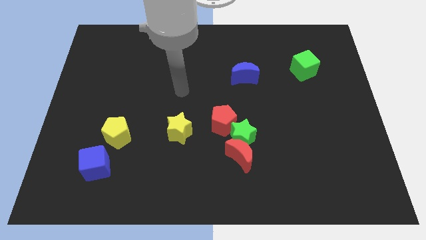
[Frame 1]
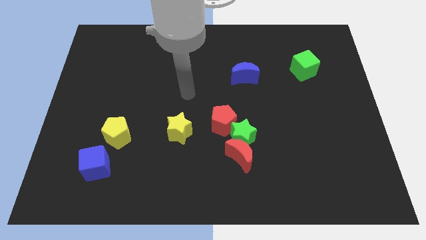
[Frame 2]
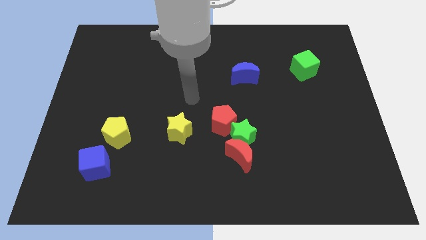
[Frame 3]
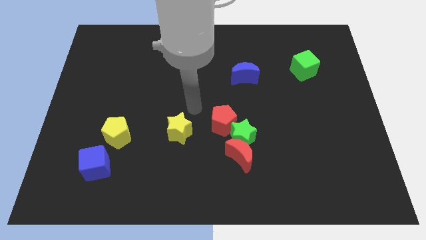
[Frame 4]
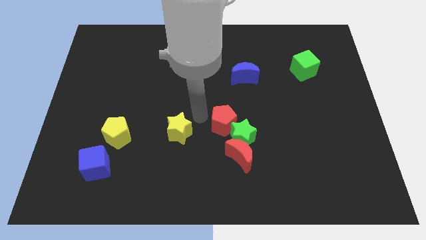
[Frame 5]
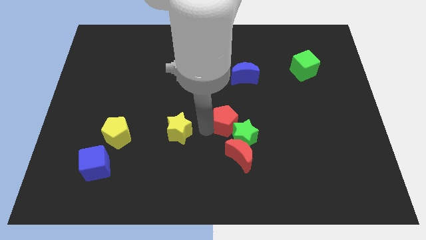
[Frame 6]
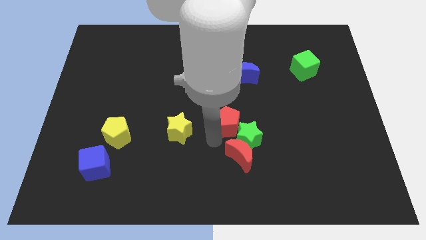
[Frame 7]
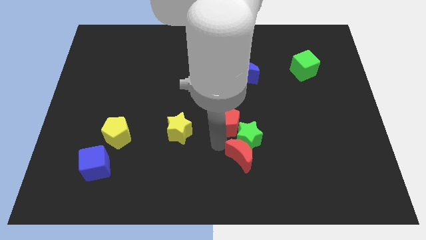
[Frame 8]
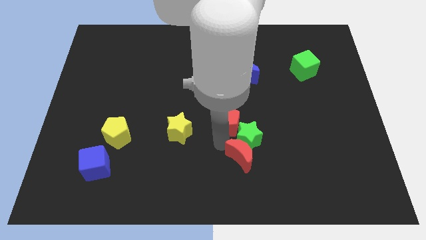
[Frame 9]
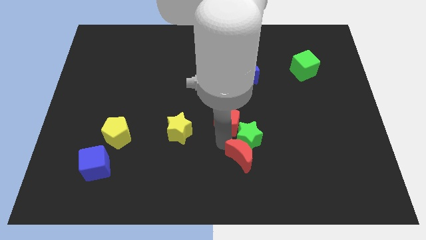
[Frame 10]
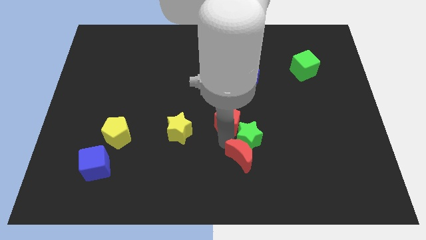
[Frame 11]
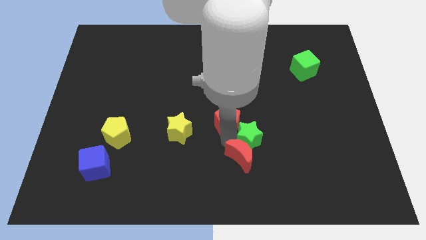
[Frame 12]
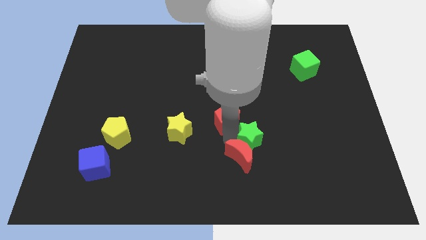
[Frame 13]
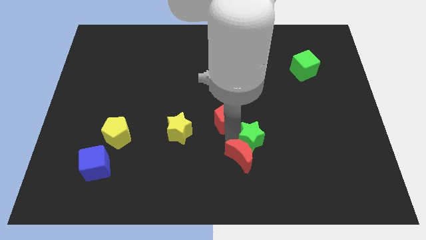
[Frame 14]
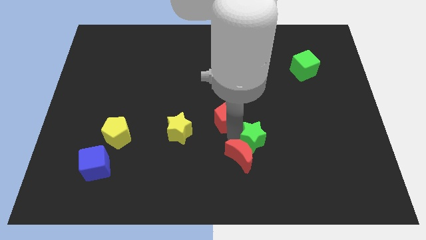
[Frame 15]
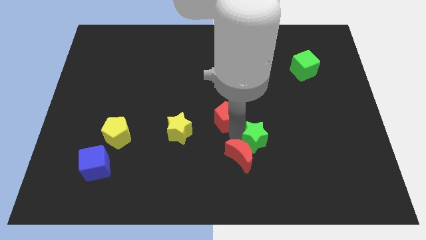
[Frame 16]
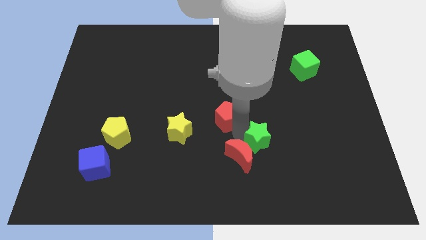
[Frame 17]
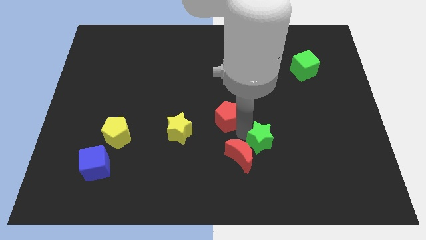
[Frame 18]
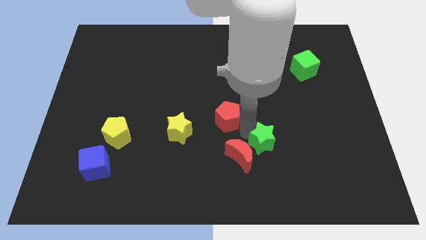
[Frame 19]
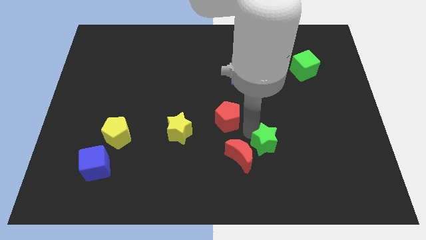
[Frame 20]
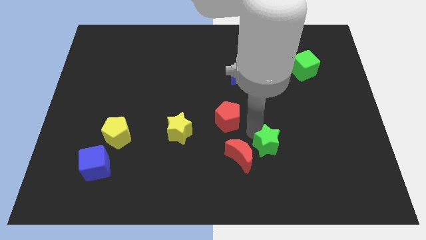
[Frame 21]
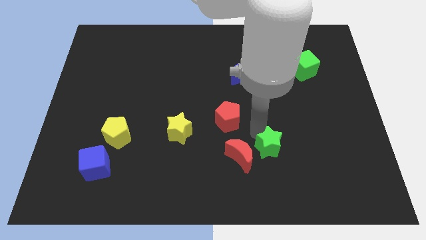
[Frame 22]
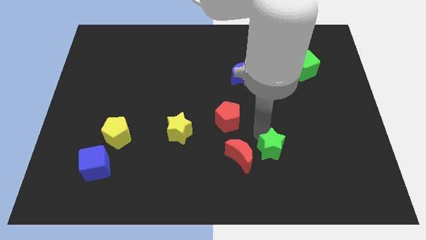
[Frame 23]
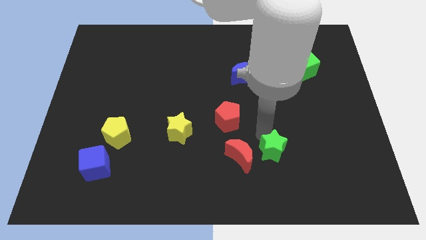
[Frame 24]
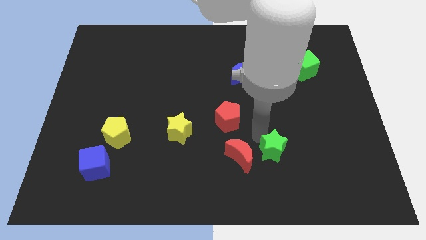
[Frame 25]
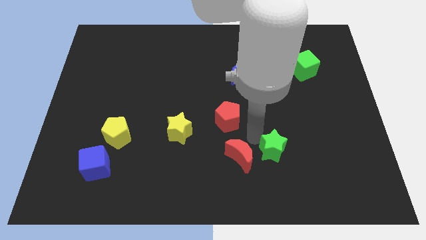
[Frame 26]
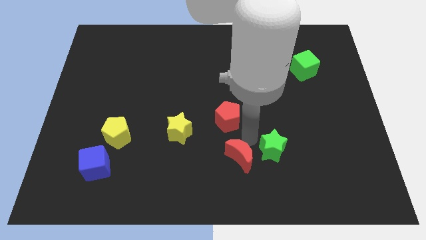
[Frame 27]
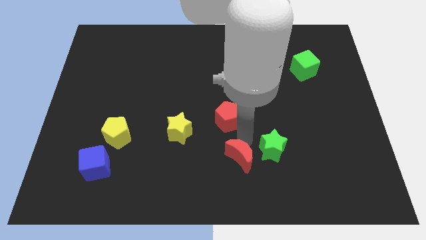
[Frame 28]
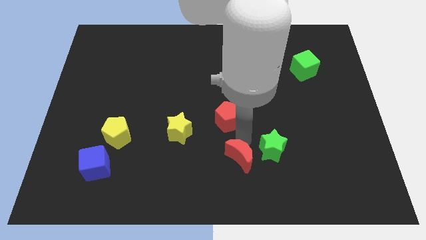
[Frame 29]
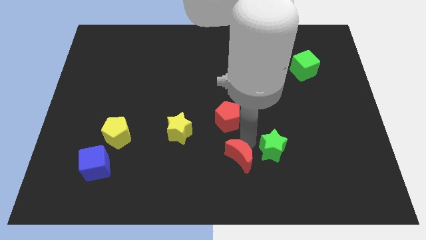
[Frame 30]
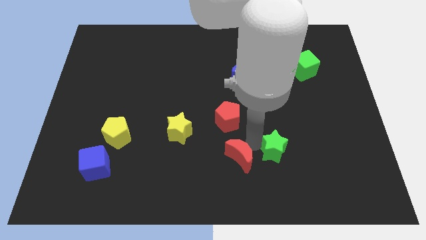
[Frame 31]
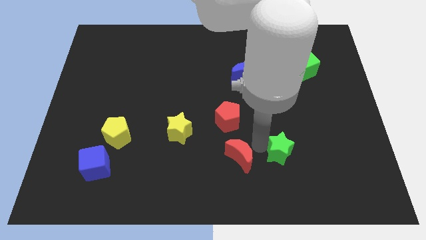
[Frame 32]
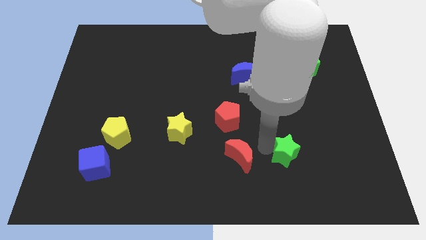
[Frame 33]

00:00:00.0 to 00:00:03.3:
pull the green star apart from the red moon and red pentagon

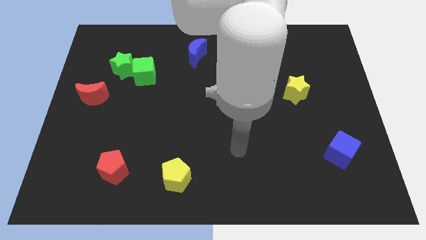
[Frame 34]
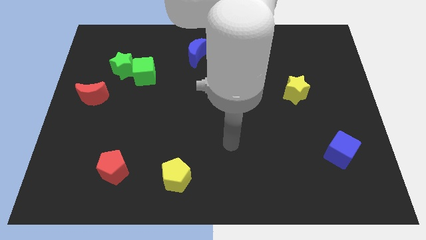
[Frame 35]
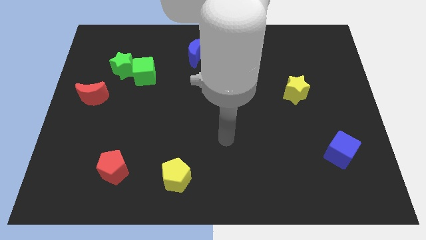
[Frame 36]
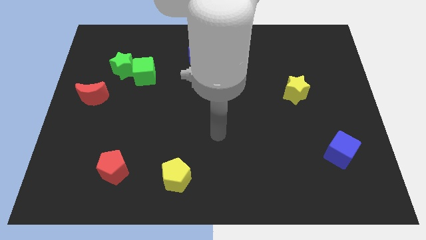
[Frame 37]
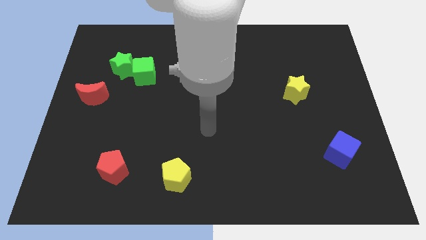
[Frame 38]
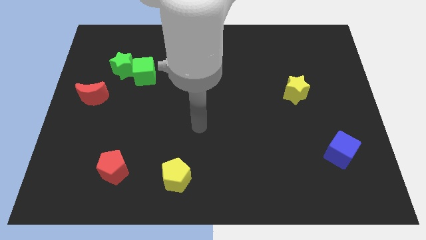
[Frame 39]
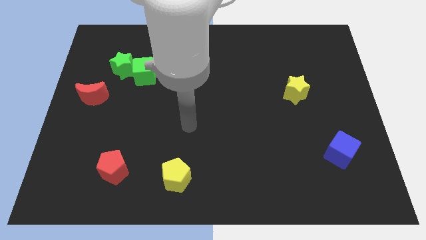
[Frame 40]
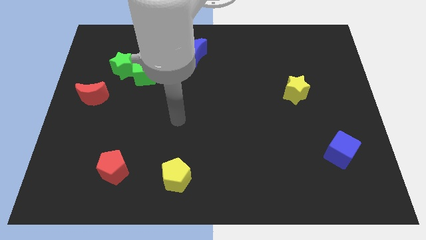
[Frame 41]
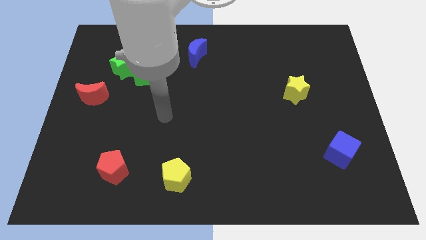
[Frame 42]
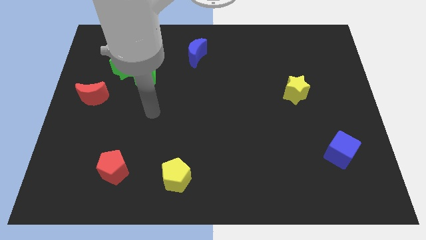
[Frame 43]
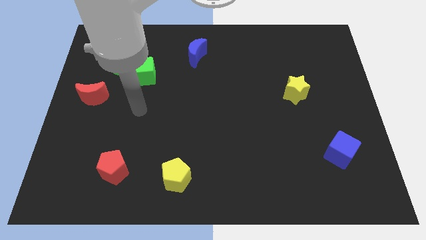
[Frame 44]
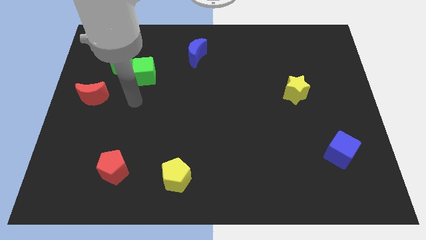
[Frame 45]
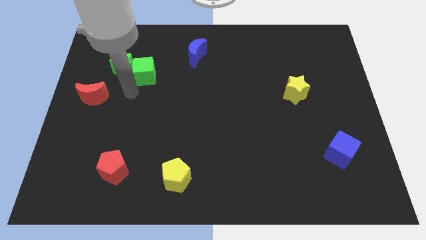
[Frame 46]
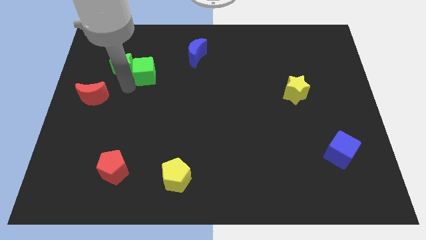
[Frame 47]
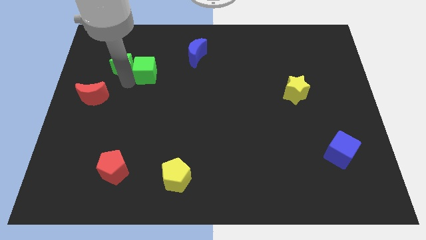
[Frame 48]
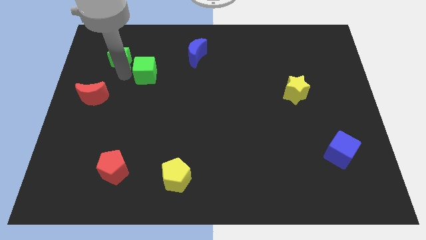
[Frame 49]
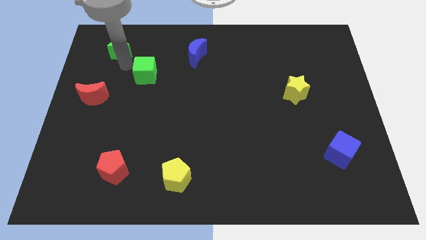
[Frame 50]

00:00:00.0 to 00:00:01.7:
pull the green cube apart from the green star

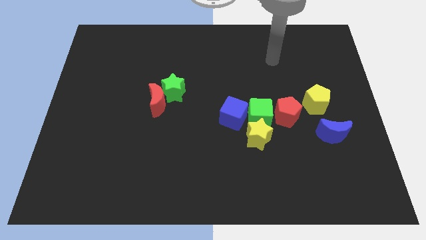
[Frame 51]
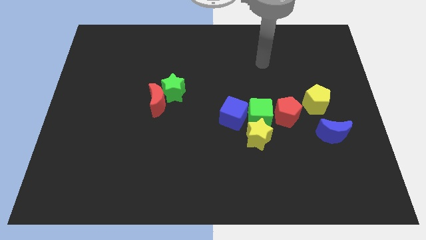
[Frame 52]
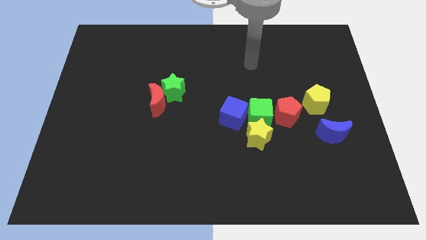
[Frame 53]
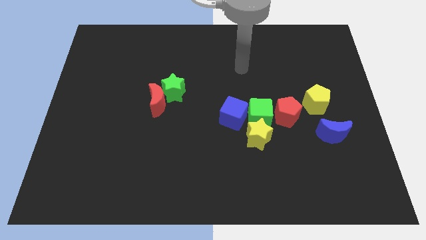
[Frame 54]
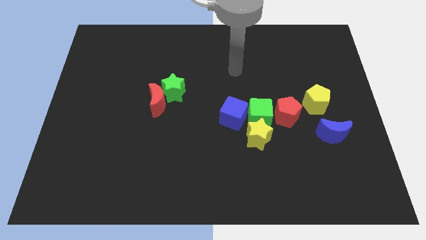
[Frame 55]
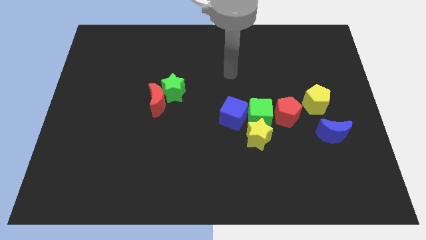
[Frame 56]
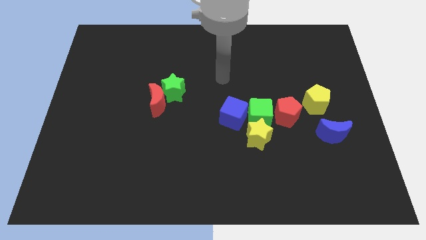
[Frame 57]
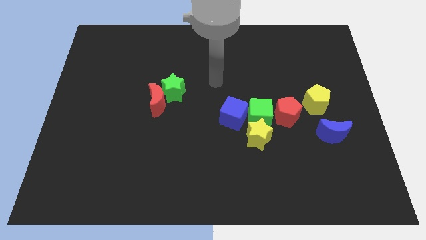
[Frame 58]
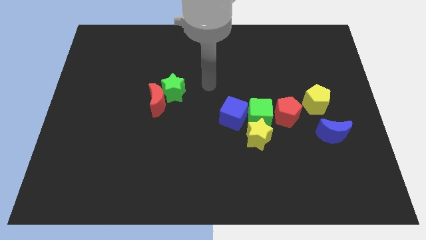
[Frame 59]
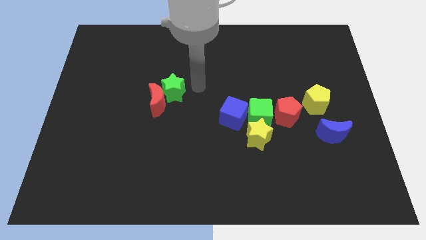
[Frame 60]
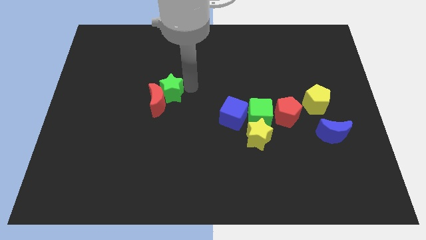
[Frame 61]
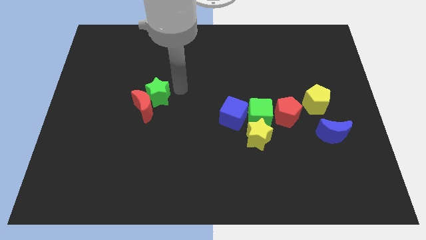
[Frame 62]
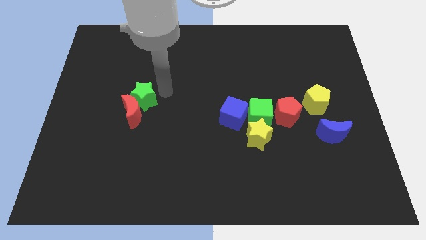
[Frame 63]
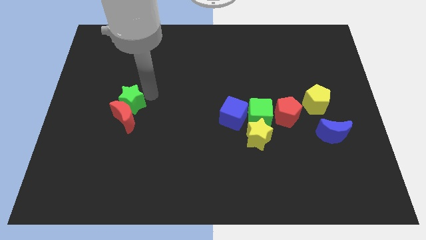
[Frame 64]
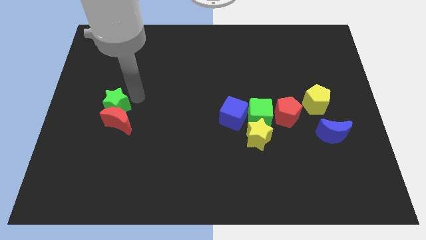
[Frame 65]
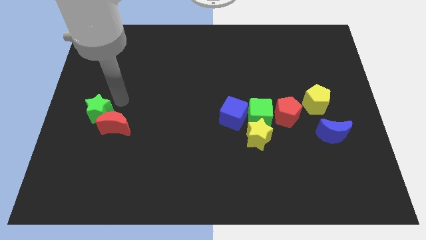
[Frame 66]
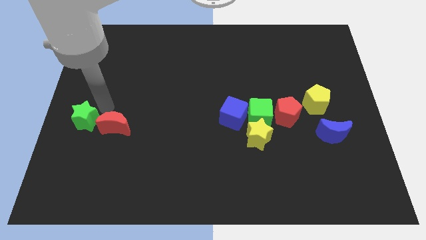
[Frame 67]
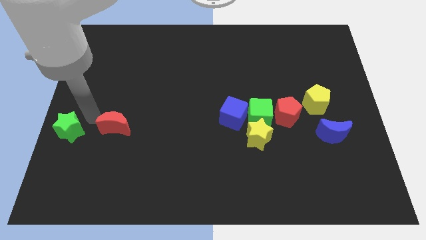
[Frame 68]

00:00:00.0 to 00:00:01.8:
pull the red moon apart from the green star

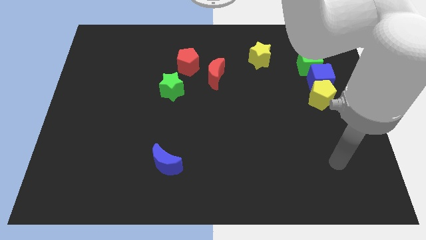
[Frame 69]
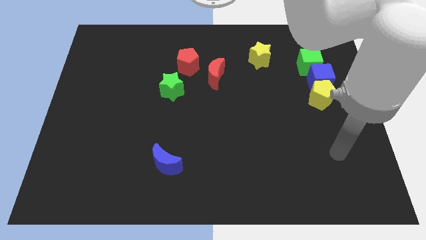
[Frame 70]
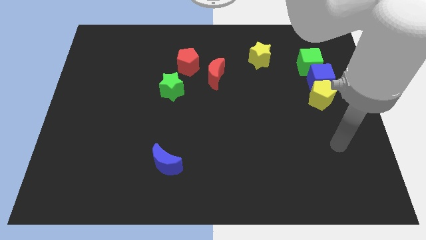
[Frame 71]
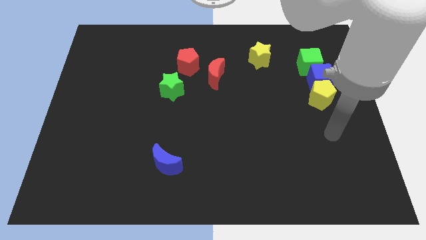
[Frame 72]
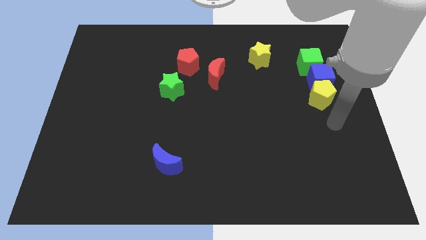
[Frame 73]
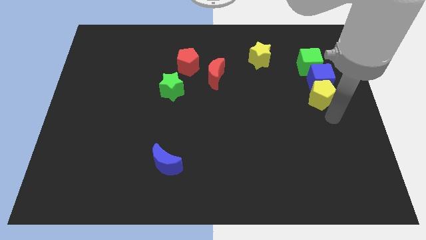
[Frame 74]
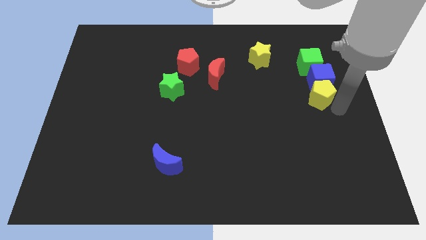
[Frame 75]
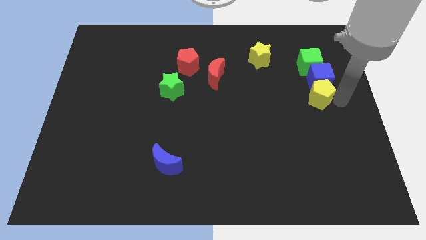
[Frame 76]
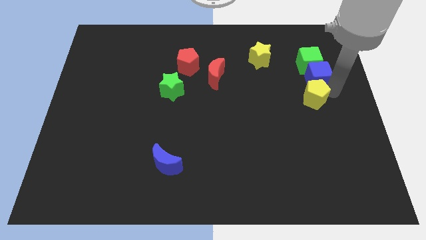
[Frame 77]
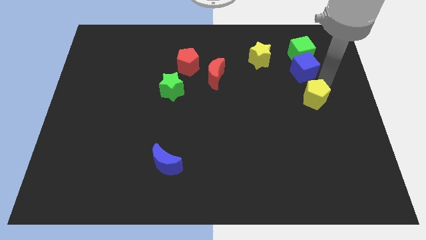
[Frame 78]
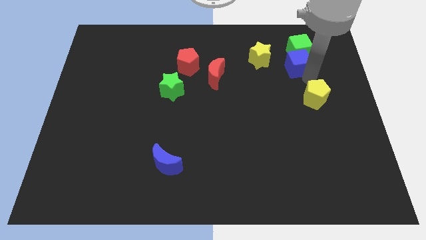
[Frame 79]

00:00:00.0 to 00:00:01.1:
separate the yellow pentagon from the blue cube

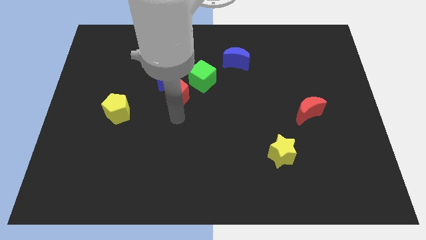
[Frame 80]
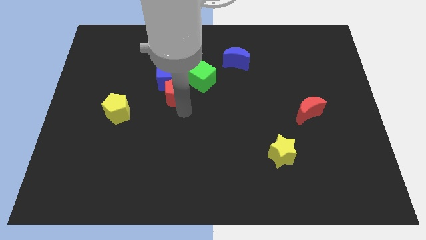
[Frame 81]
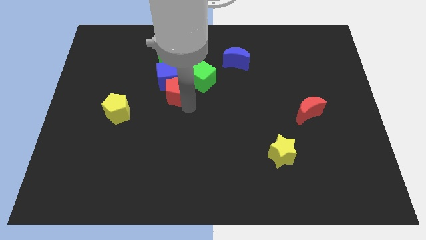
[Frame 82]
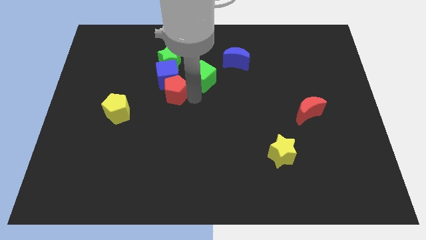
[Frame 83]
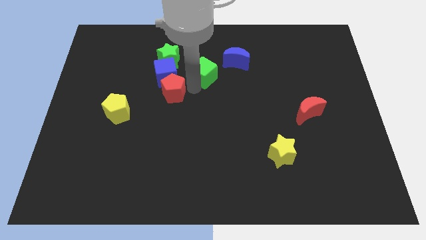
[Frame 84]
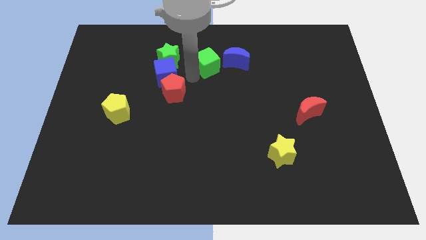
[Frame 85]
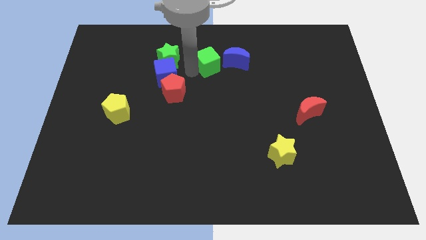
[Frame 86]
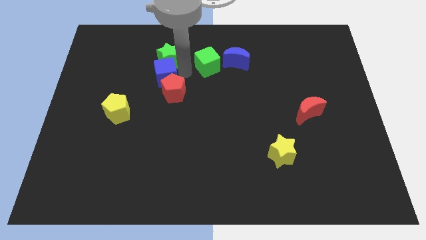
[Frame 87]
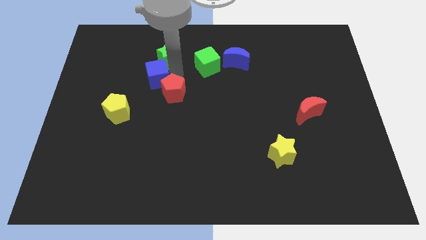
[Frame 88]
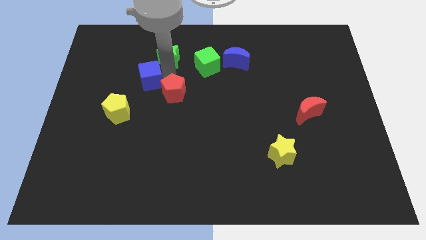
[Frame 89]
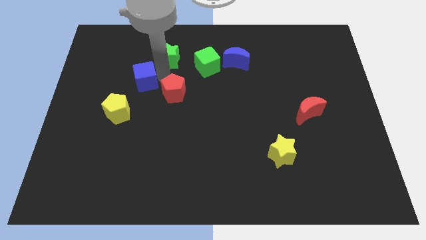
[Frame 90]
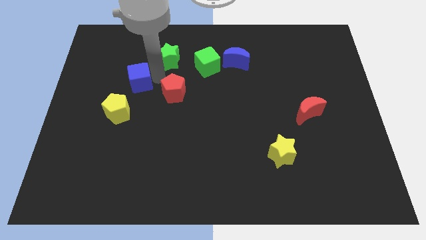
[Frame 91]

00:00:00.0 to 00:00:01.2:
move the blue cube away from the clump
